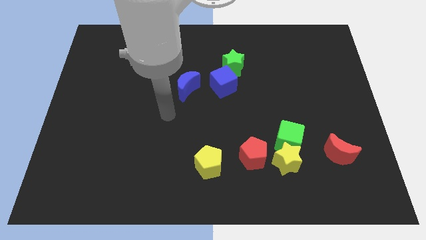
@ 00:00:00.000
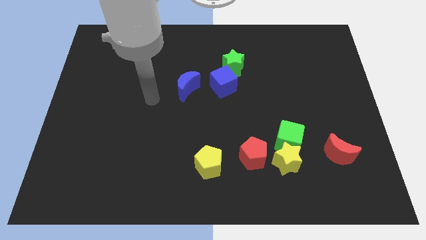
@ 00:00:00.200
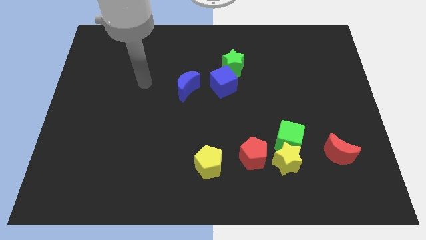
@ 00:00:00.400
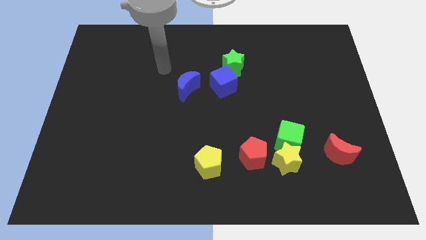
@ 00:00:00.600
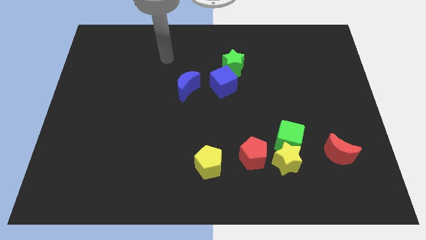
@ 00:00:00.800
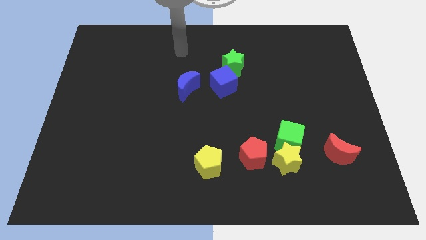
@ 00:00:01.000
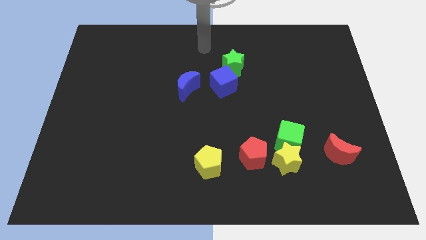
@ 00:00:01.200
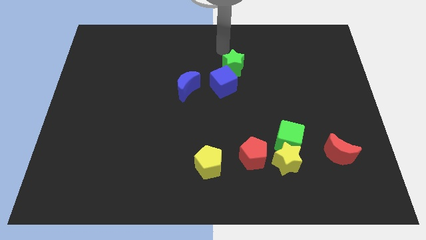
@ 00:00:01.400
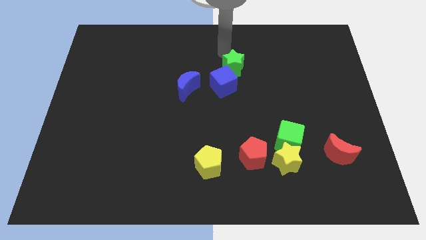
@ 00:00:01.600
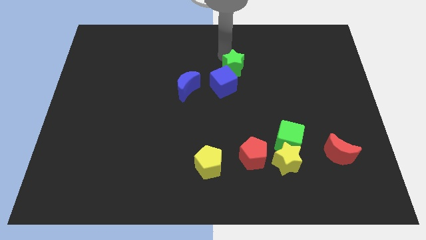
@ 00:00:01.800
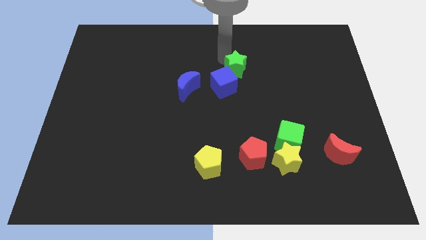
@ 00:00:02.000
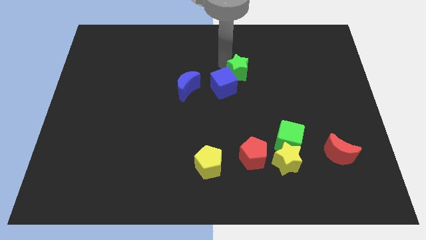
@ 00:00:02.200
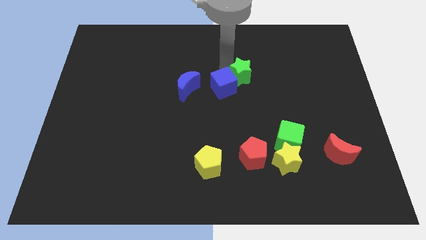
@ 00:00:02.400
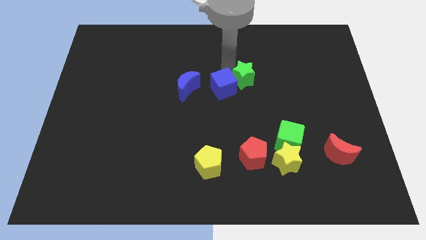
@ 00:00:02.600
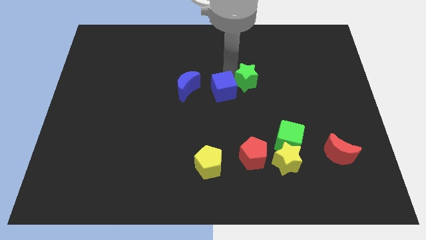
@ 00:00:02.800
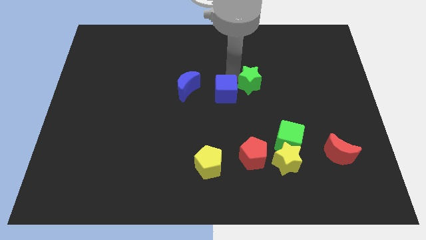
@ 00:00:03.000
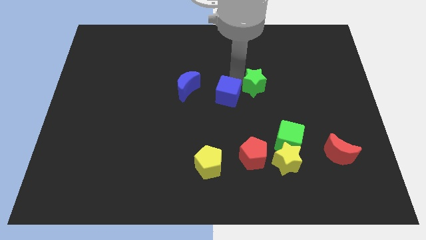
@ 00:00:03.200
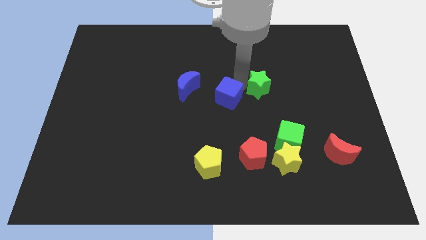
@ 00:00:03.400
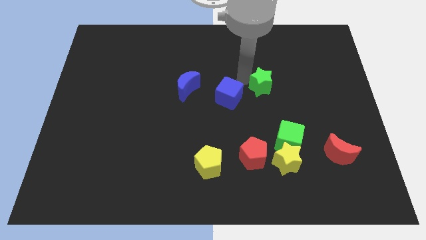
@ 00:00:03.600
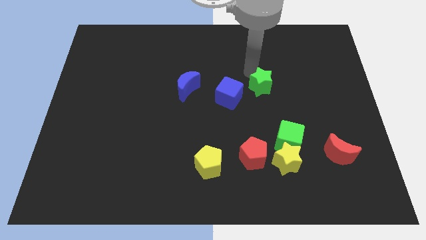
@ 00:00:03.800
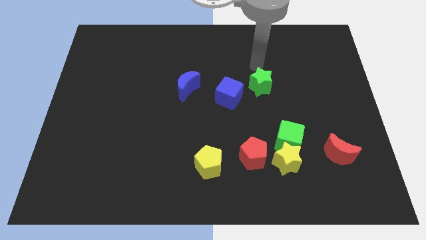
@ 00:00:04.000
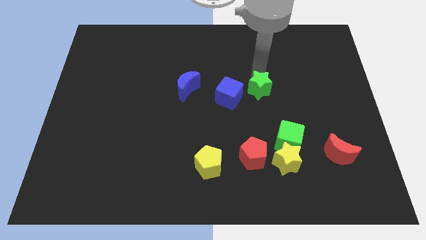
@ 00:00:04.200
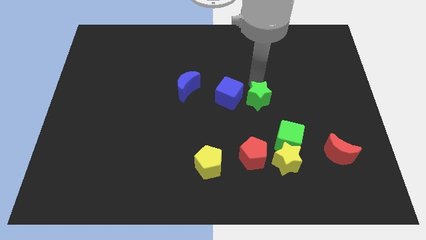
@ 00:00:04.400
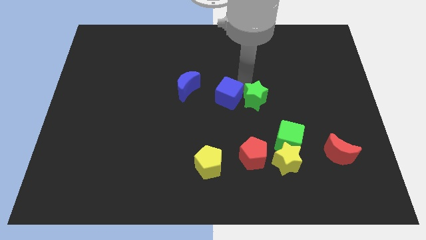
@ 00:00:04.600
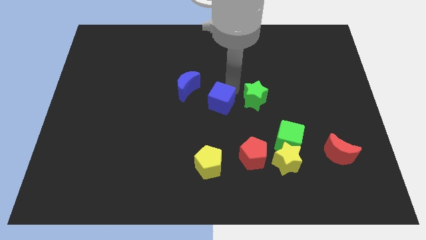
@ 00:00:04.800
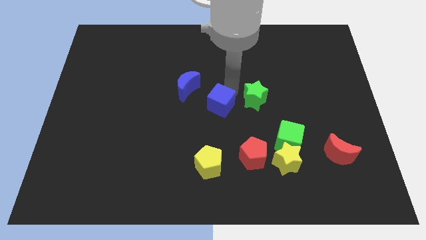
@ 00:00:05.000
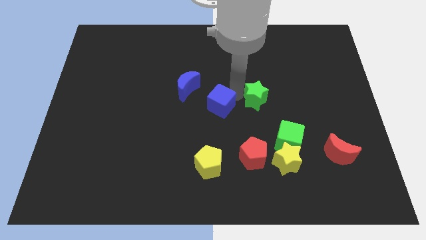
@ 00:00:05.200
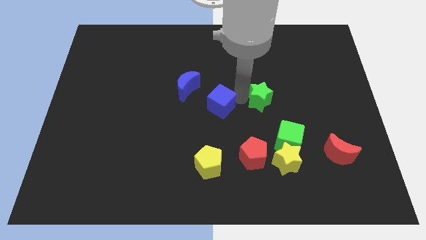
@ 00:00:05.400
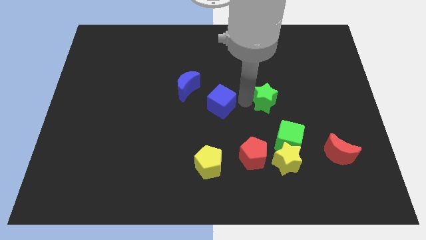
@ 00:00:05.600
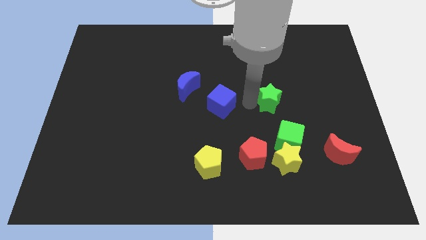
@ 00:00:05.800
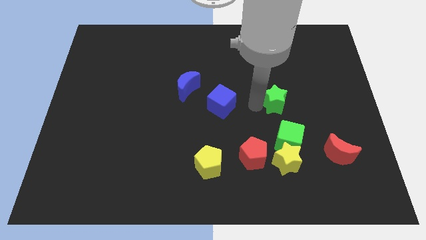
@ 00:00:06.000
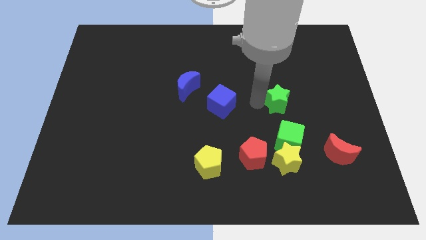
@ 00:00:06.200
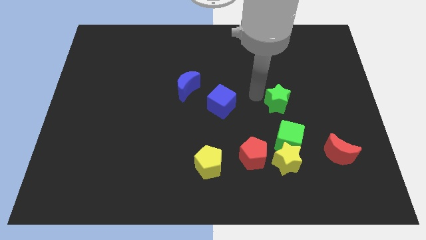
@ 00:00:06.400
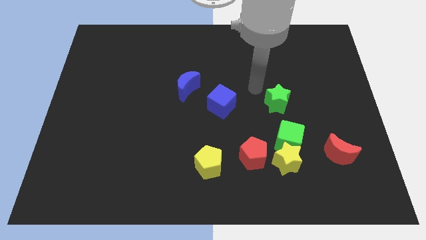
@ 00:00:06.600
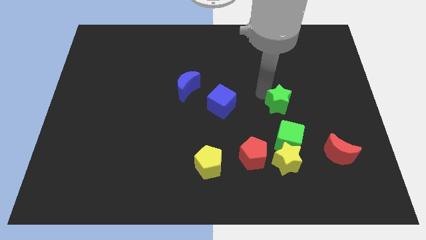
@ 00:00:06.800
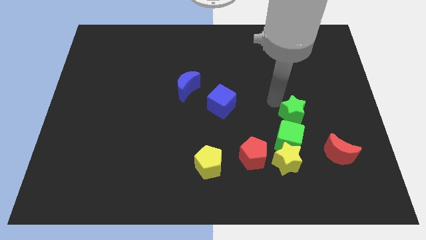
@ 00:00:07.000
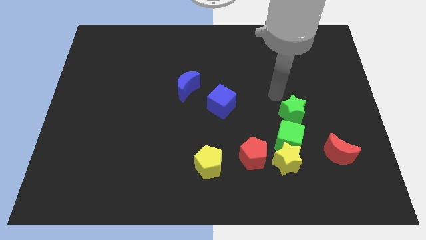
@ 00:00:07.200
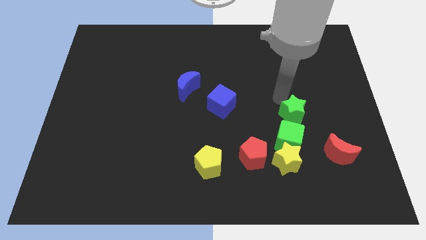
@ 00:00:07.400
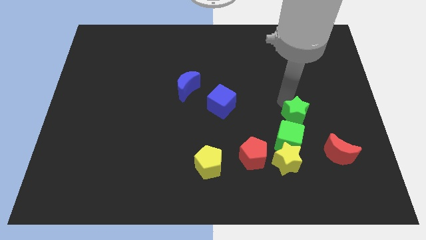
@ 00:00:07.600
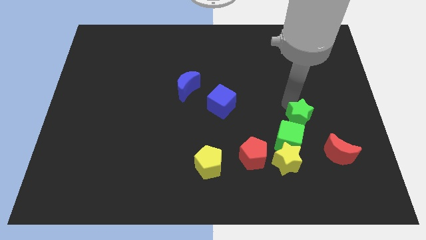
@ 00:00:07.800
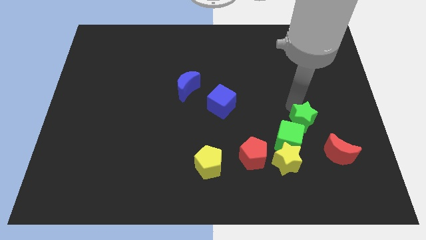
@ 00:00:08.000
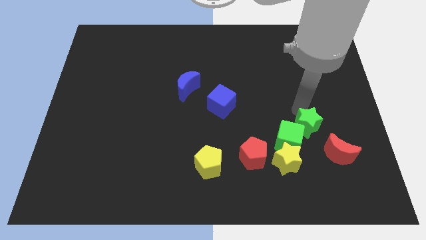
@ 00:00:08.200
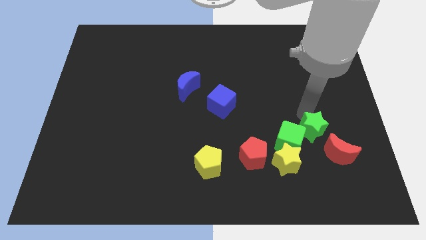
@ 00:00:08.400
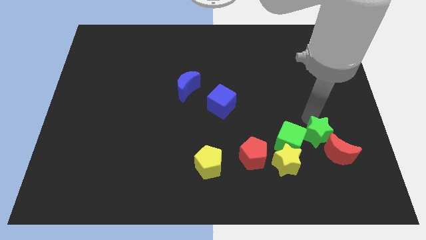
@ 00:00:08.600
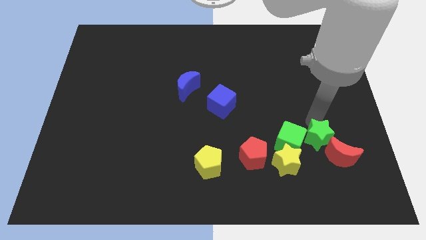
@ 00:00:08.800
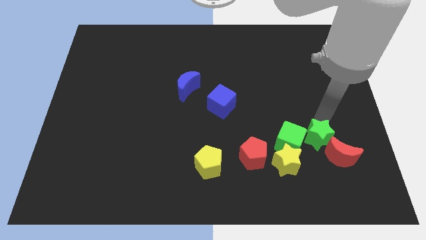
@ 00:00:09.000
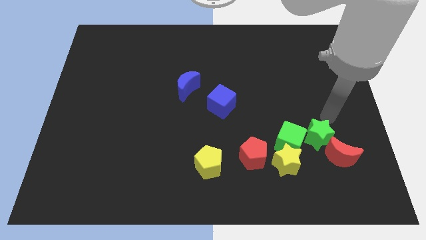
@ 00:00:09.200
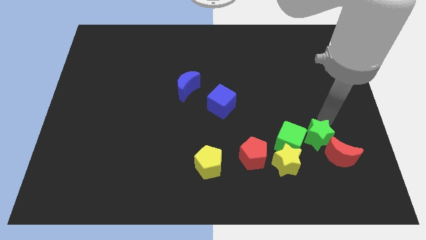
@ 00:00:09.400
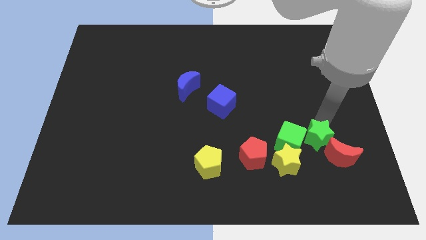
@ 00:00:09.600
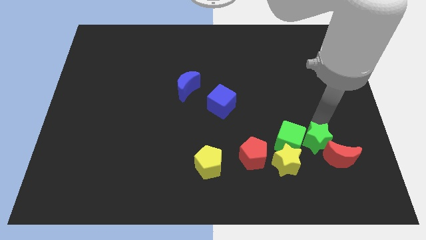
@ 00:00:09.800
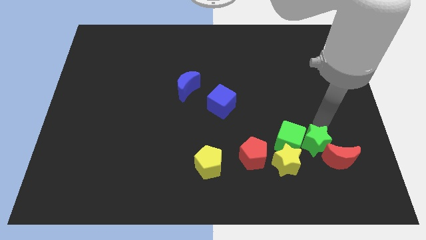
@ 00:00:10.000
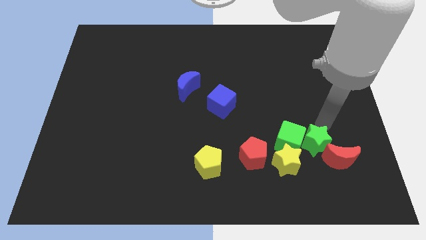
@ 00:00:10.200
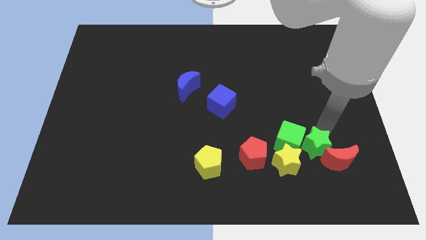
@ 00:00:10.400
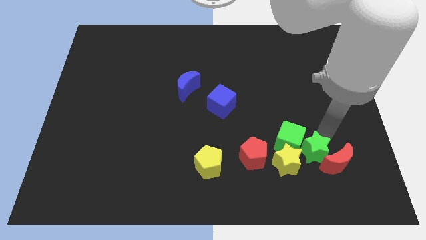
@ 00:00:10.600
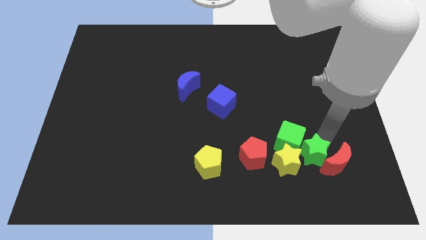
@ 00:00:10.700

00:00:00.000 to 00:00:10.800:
push the green star next to the yellow star

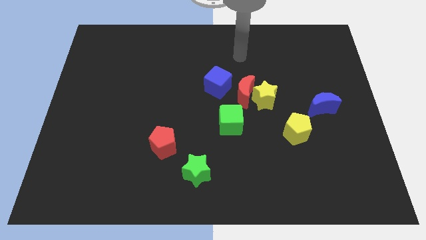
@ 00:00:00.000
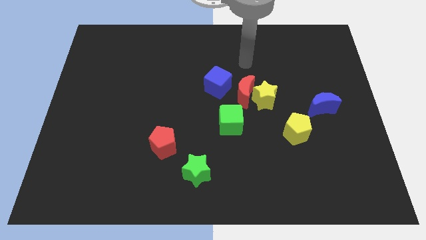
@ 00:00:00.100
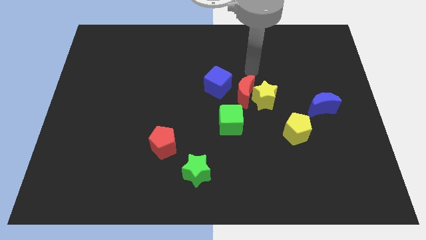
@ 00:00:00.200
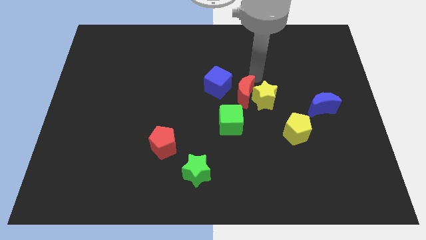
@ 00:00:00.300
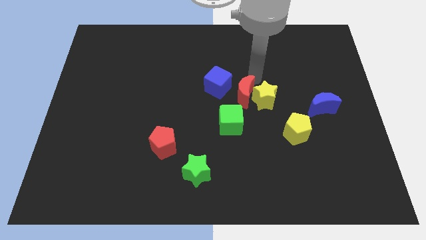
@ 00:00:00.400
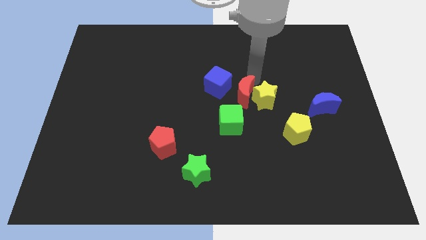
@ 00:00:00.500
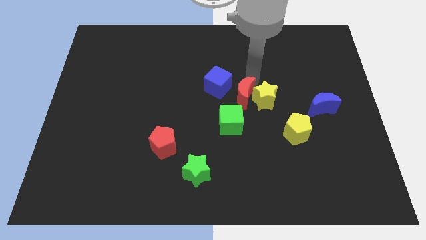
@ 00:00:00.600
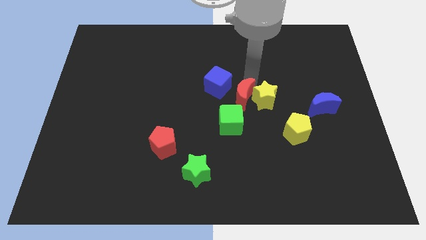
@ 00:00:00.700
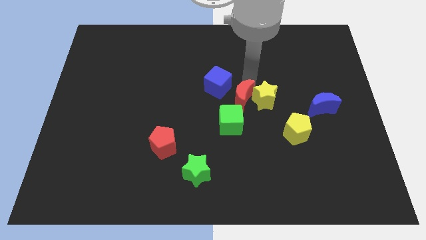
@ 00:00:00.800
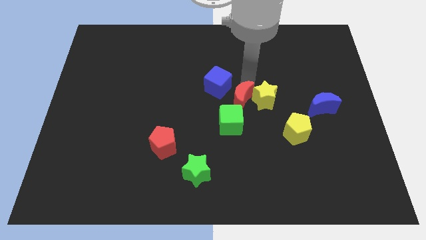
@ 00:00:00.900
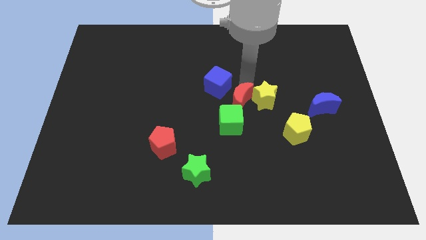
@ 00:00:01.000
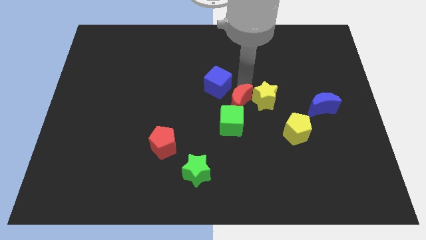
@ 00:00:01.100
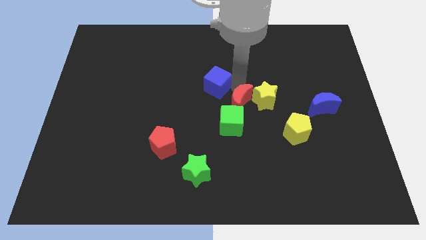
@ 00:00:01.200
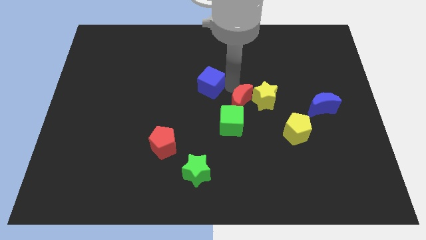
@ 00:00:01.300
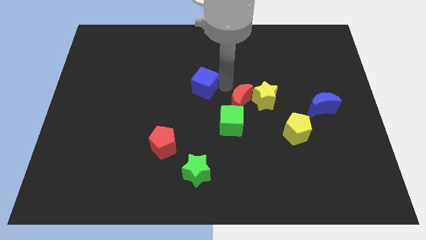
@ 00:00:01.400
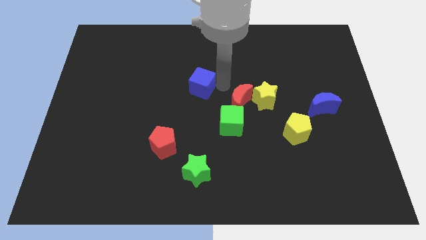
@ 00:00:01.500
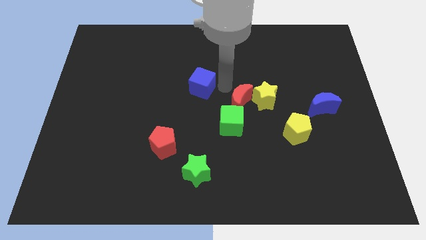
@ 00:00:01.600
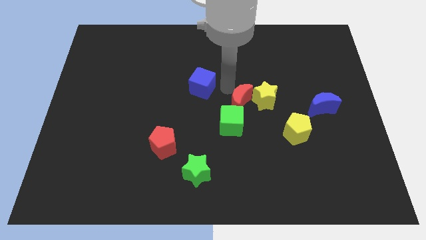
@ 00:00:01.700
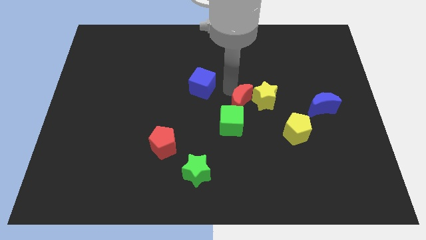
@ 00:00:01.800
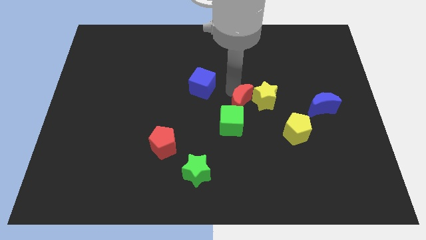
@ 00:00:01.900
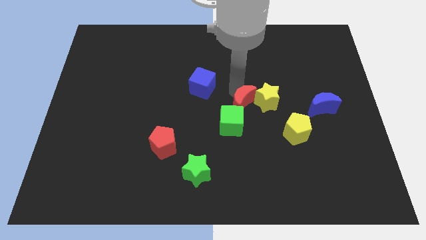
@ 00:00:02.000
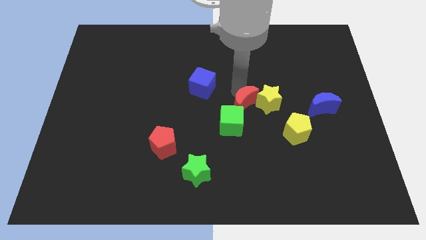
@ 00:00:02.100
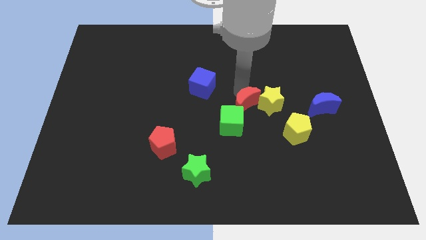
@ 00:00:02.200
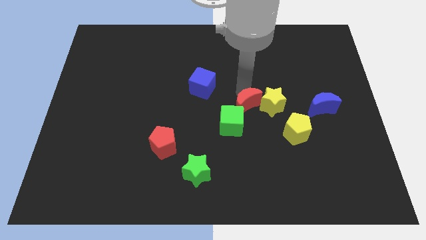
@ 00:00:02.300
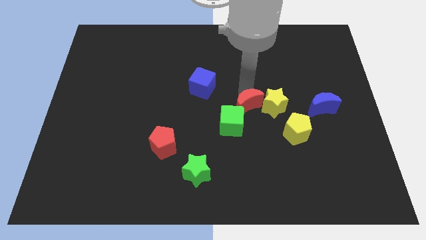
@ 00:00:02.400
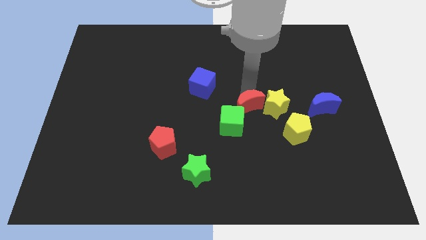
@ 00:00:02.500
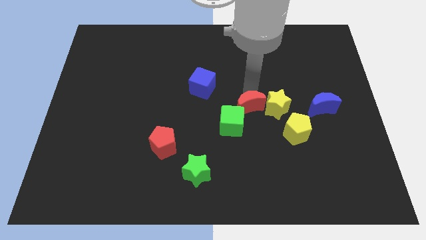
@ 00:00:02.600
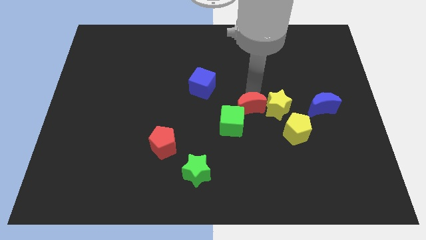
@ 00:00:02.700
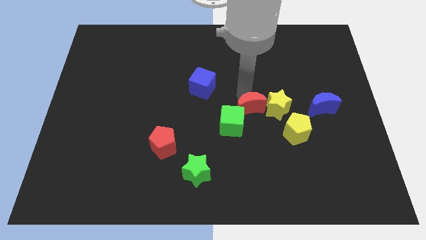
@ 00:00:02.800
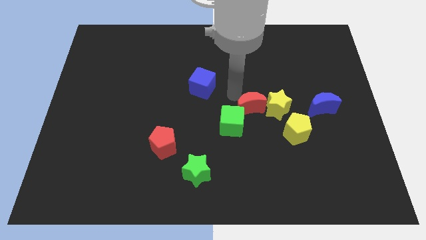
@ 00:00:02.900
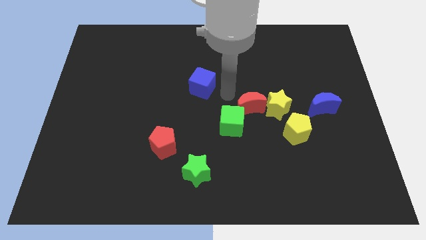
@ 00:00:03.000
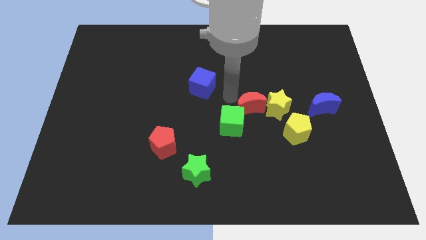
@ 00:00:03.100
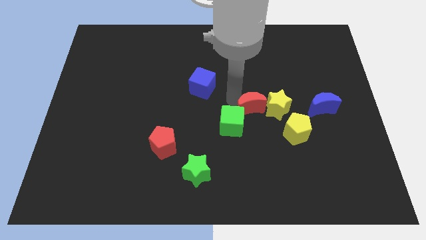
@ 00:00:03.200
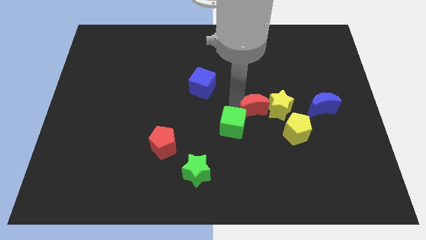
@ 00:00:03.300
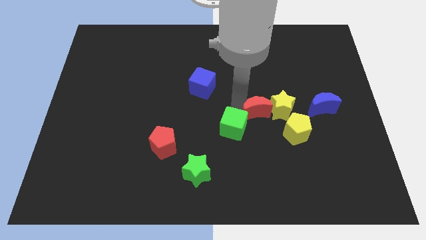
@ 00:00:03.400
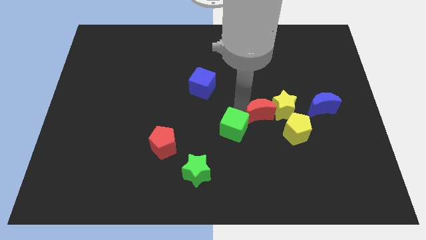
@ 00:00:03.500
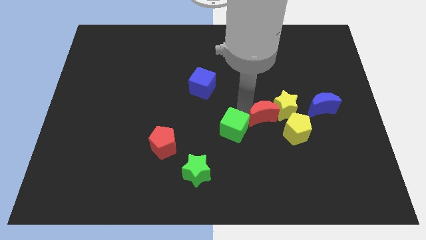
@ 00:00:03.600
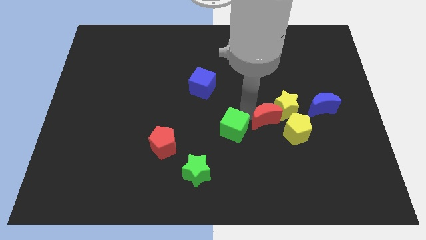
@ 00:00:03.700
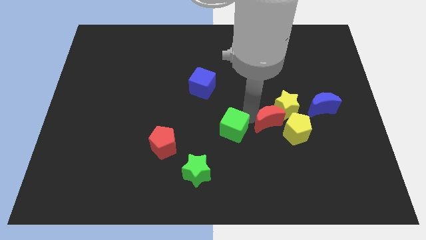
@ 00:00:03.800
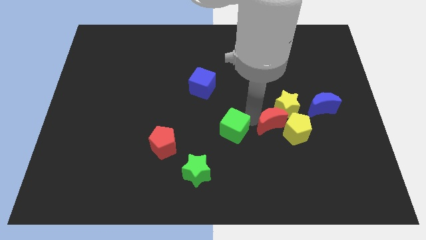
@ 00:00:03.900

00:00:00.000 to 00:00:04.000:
push the red moon towards the yellow pentagon
